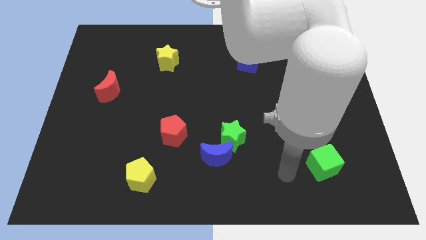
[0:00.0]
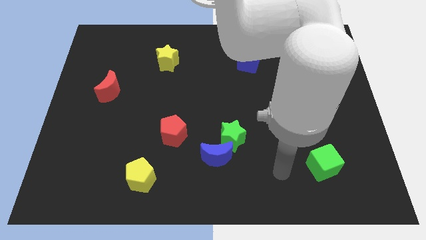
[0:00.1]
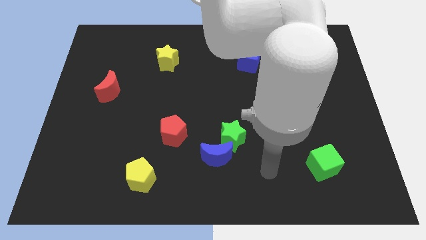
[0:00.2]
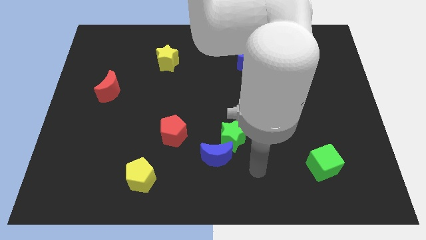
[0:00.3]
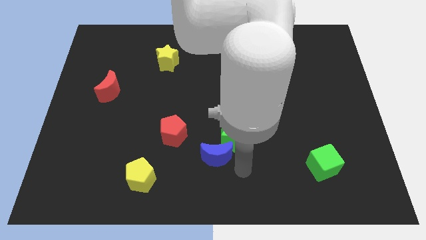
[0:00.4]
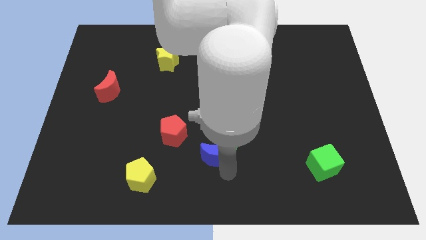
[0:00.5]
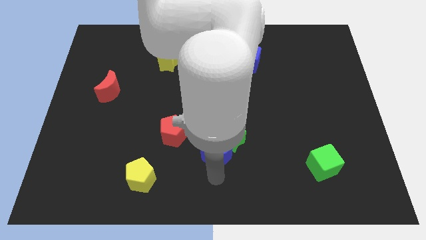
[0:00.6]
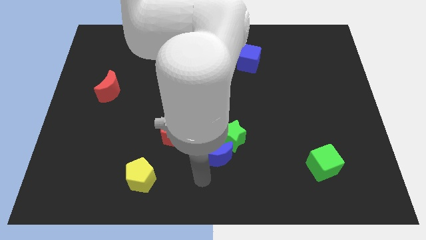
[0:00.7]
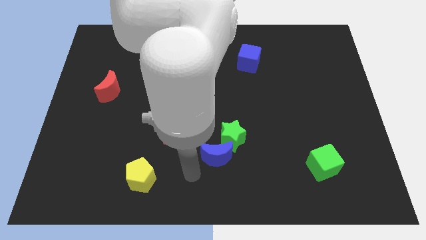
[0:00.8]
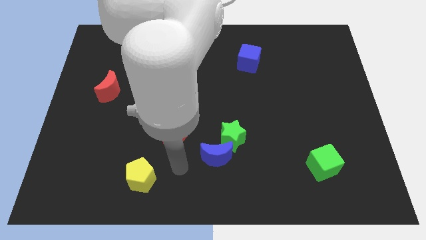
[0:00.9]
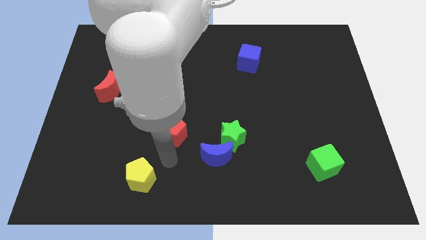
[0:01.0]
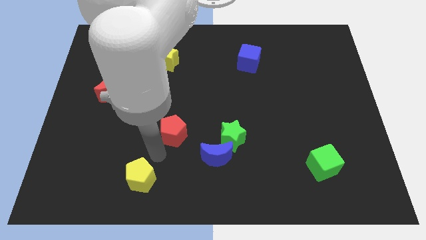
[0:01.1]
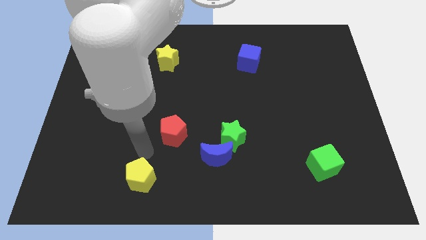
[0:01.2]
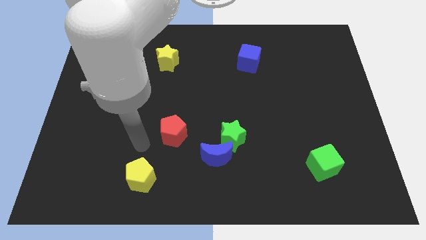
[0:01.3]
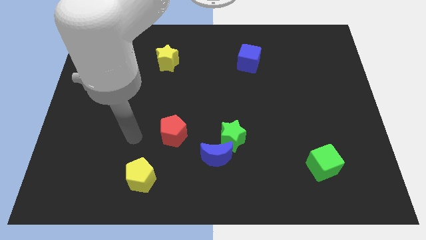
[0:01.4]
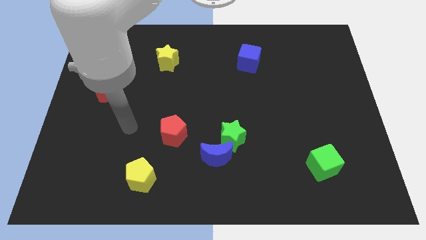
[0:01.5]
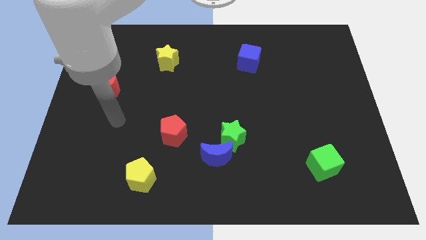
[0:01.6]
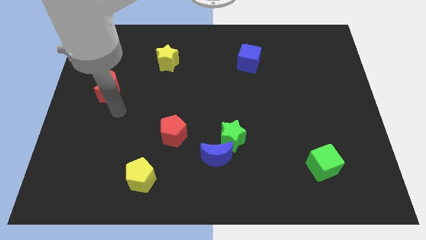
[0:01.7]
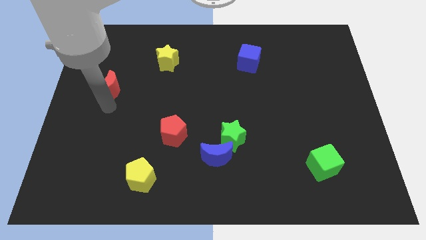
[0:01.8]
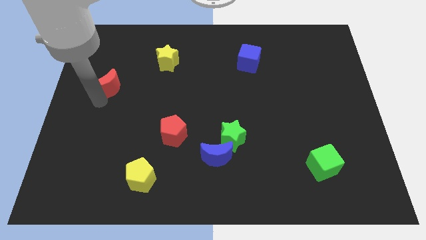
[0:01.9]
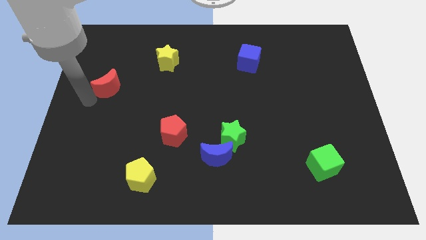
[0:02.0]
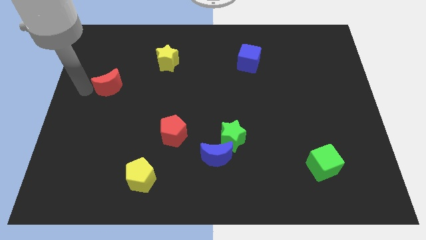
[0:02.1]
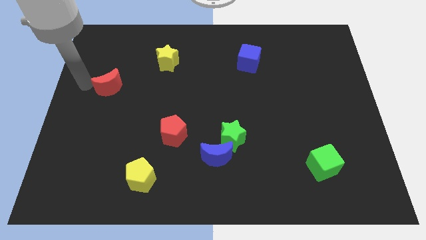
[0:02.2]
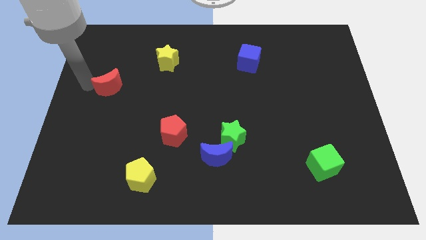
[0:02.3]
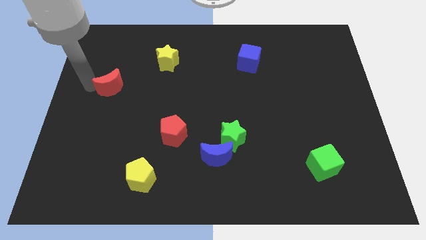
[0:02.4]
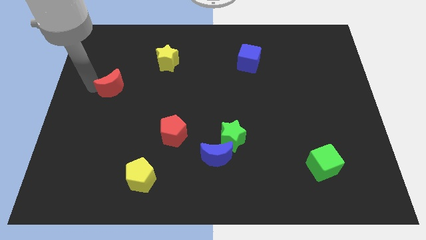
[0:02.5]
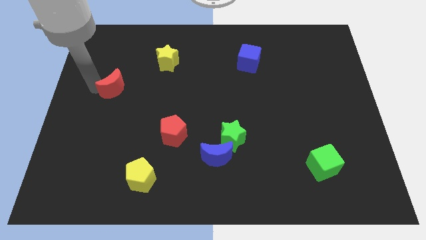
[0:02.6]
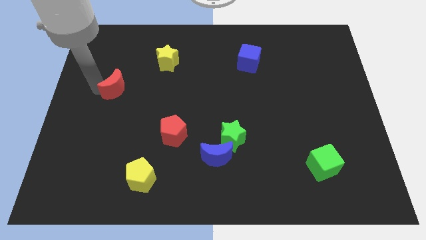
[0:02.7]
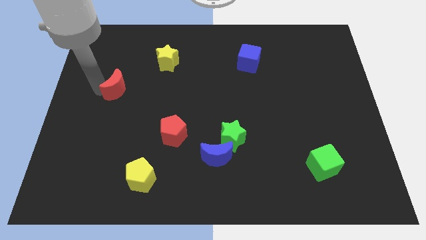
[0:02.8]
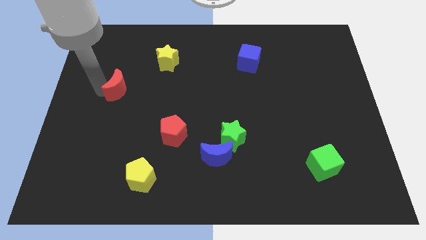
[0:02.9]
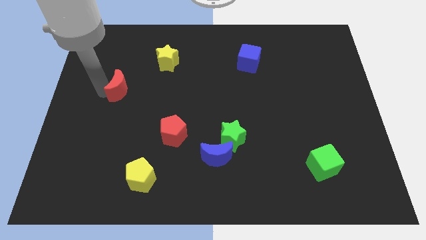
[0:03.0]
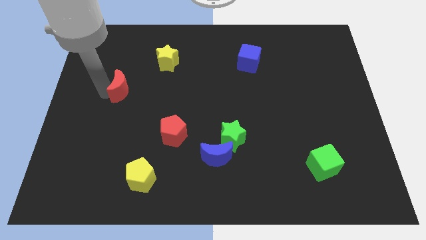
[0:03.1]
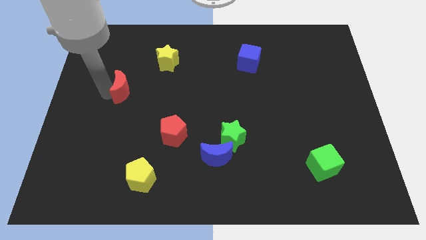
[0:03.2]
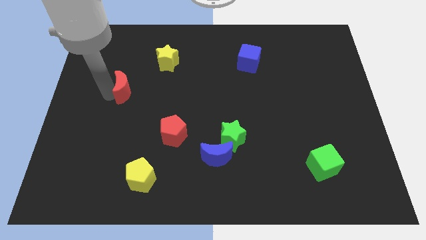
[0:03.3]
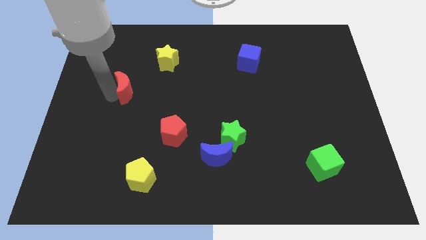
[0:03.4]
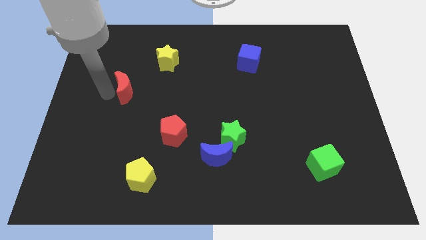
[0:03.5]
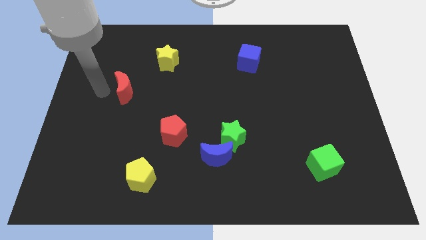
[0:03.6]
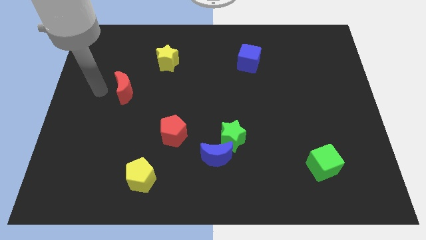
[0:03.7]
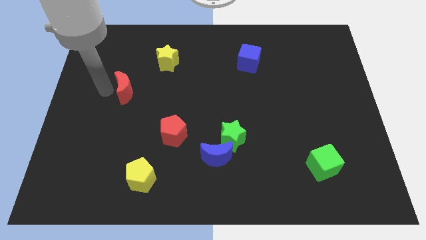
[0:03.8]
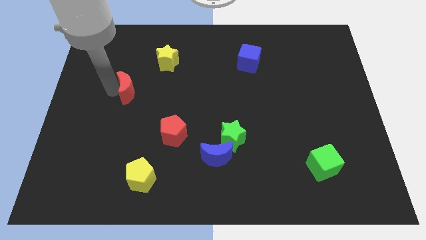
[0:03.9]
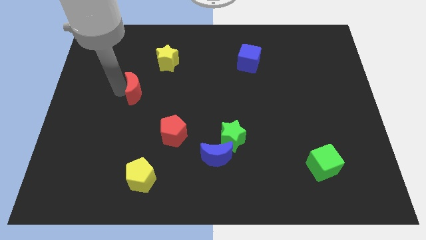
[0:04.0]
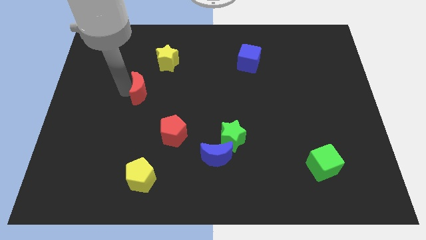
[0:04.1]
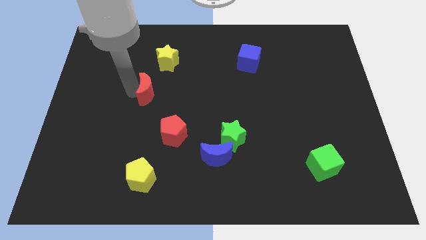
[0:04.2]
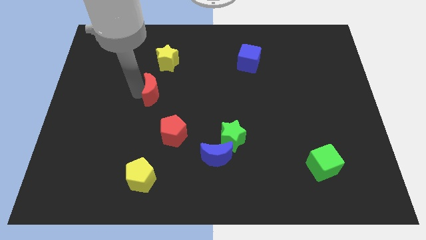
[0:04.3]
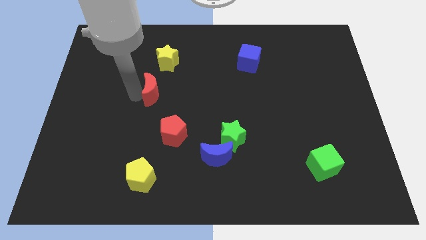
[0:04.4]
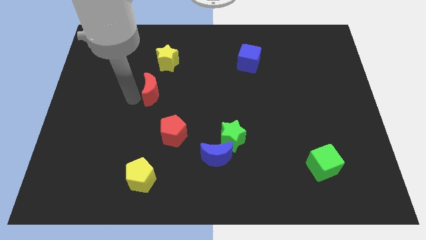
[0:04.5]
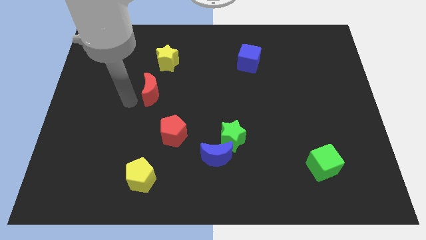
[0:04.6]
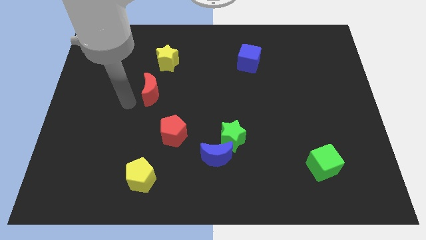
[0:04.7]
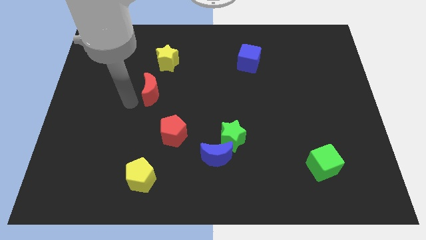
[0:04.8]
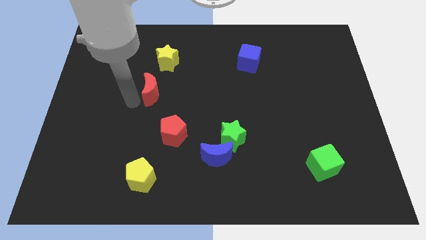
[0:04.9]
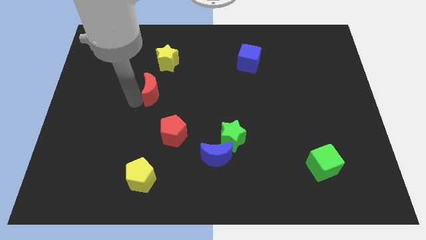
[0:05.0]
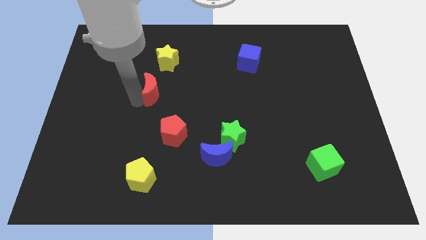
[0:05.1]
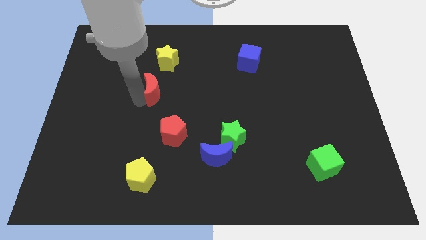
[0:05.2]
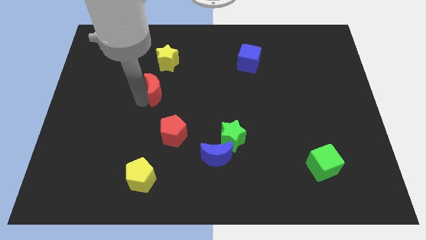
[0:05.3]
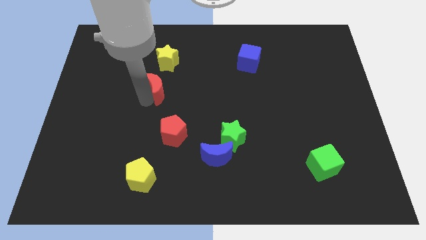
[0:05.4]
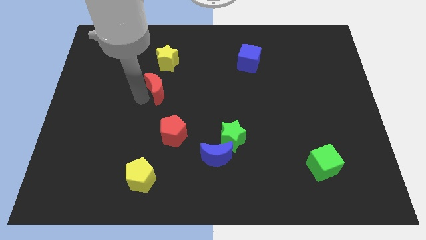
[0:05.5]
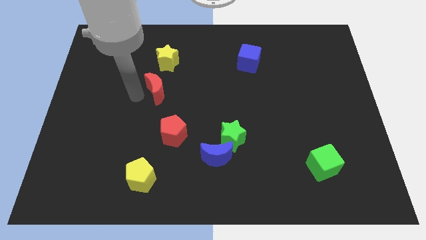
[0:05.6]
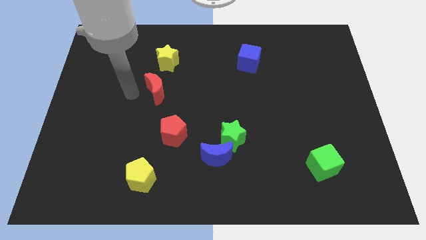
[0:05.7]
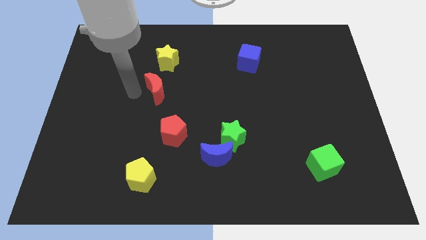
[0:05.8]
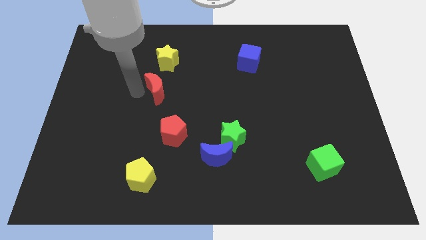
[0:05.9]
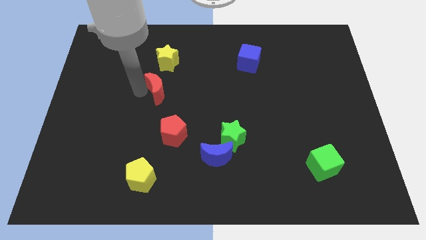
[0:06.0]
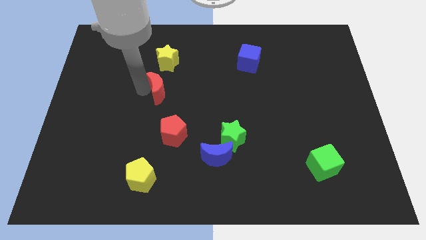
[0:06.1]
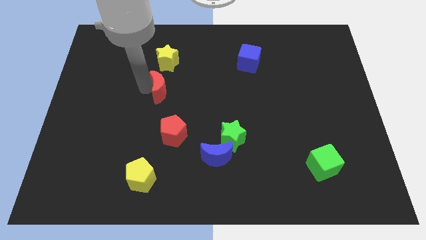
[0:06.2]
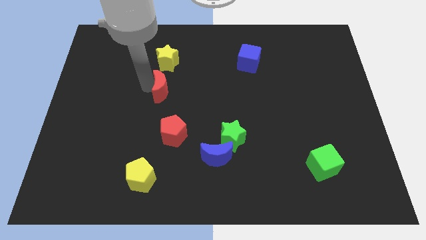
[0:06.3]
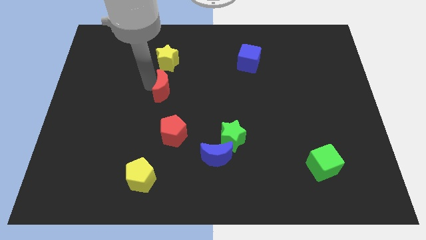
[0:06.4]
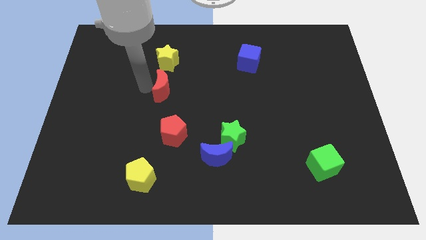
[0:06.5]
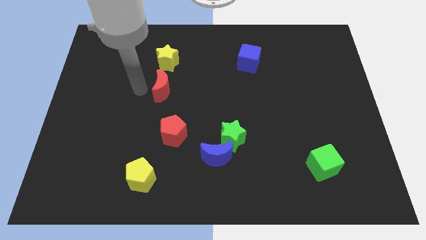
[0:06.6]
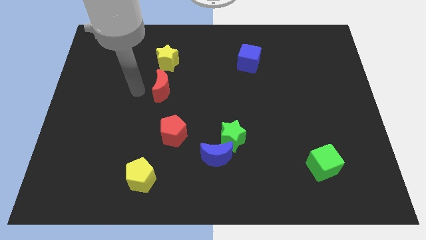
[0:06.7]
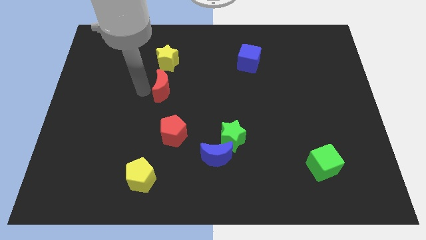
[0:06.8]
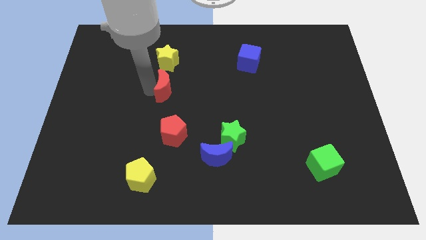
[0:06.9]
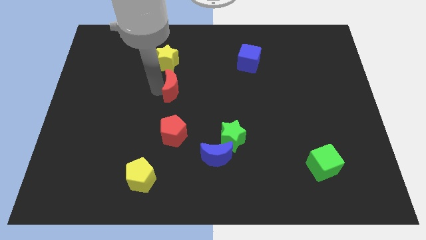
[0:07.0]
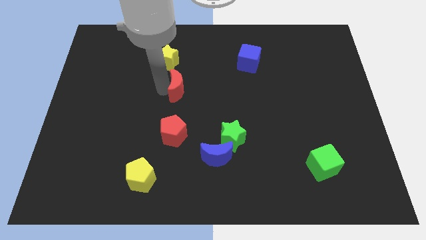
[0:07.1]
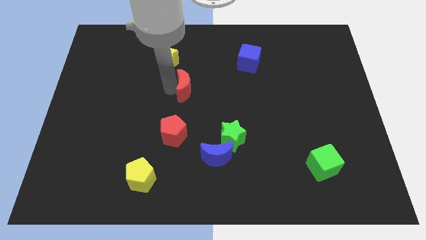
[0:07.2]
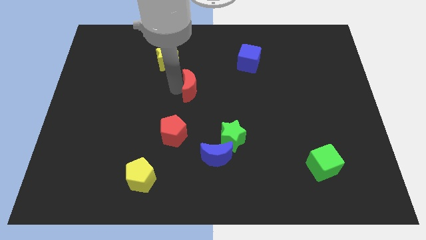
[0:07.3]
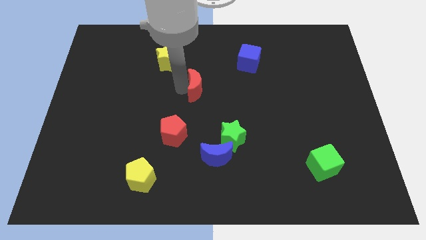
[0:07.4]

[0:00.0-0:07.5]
push the red moon to the right

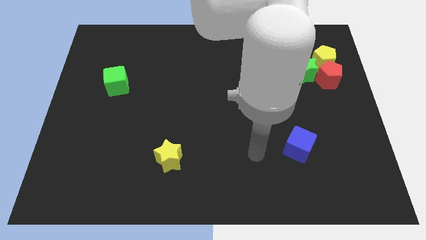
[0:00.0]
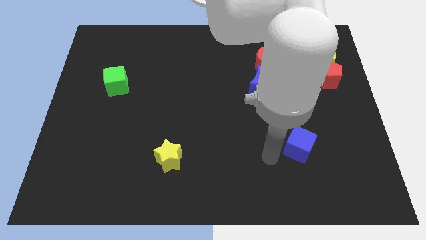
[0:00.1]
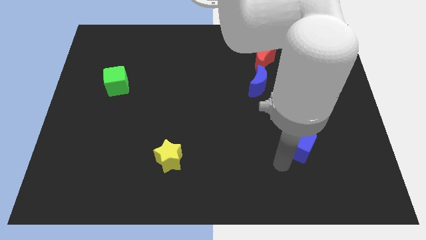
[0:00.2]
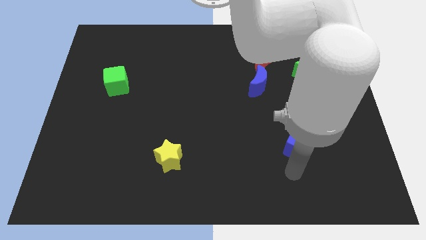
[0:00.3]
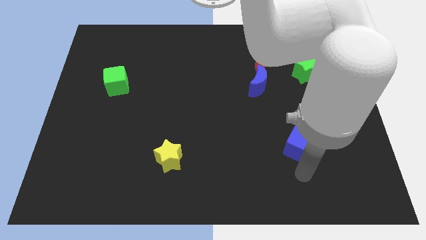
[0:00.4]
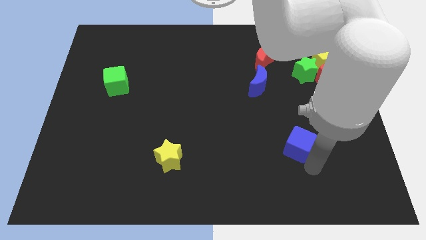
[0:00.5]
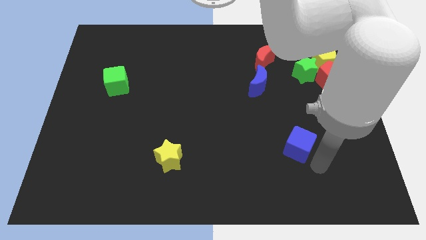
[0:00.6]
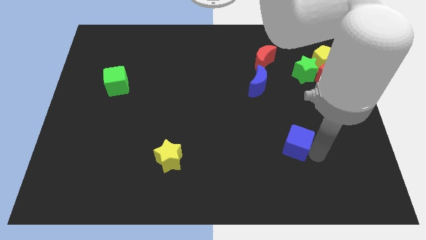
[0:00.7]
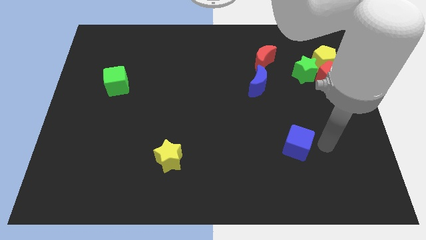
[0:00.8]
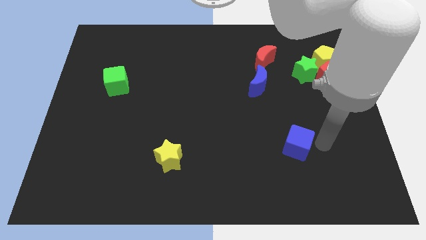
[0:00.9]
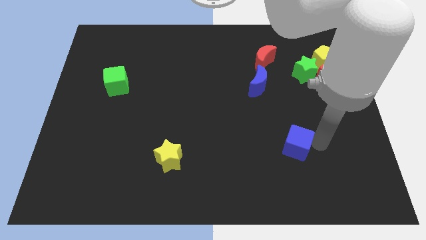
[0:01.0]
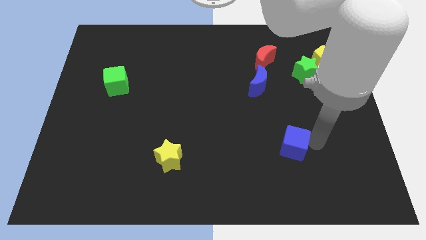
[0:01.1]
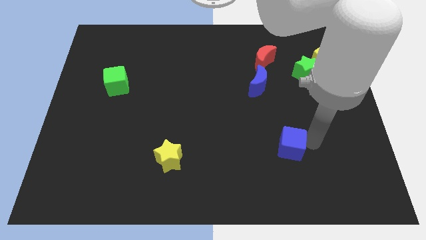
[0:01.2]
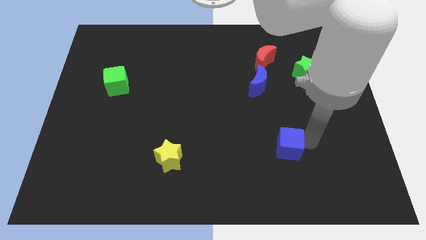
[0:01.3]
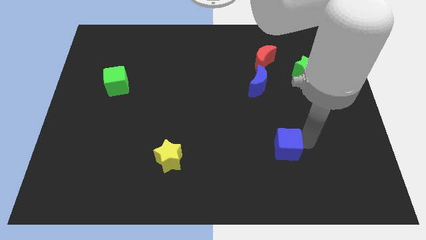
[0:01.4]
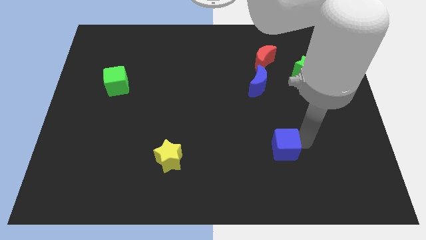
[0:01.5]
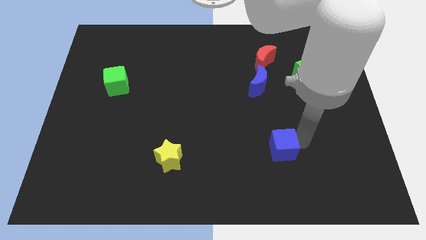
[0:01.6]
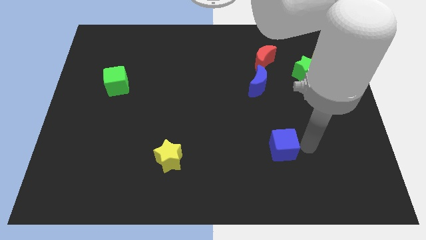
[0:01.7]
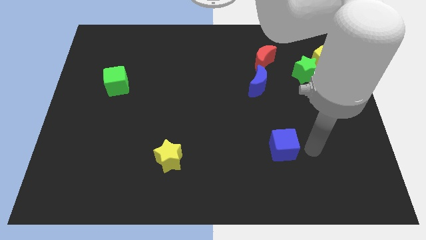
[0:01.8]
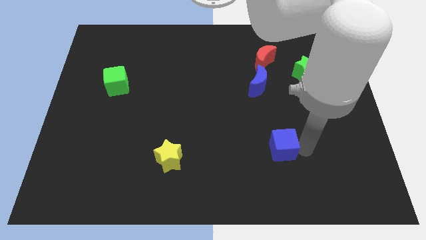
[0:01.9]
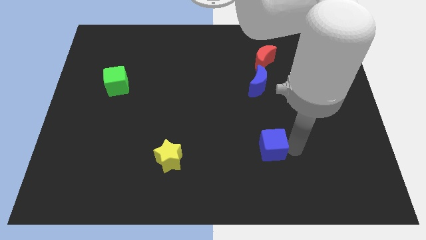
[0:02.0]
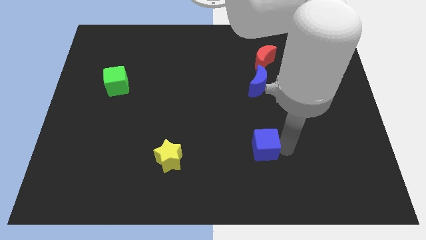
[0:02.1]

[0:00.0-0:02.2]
slide the blue cube a bit left
